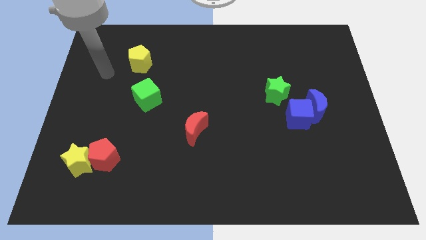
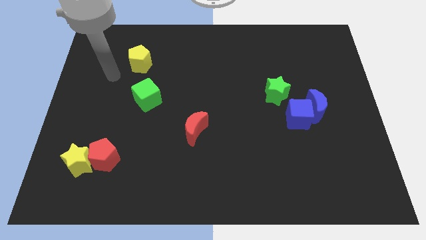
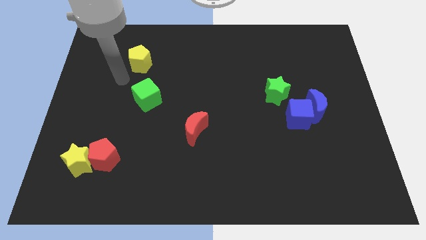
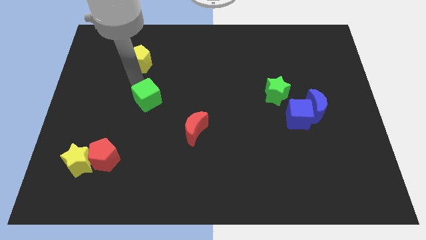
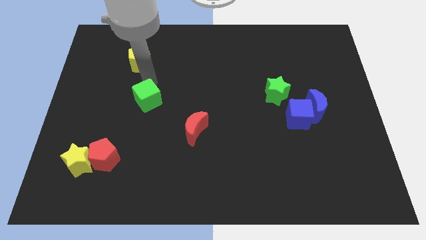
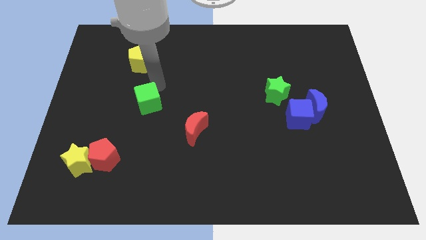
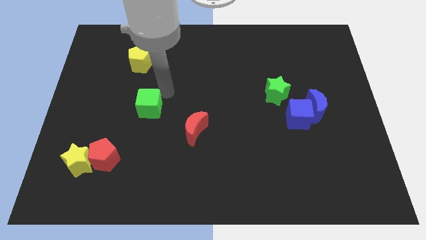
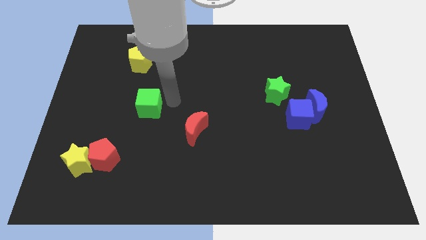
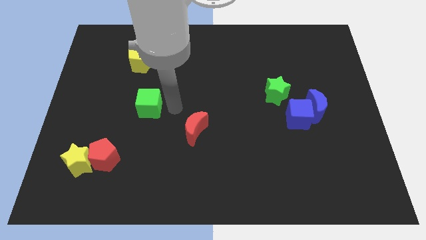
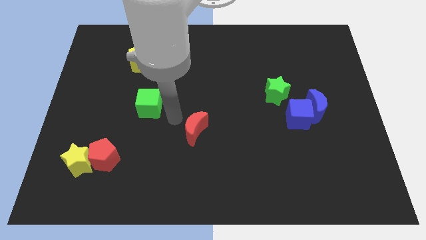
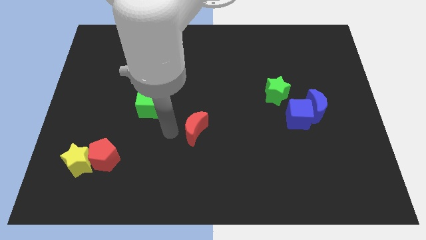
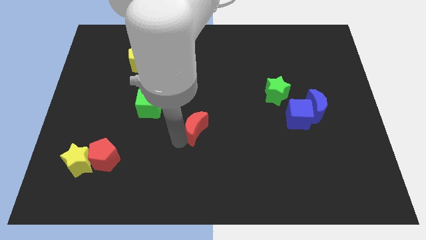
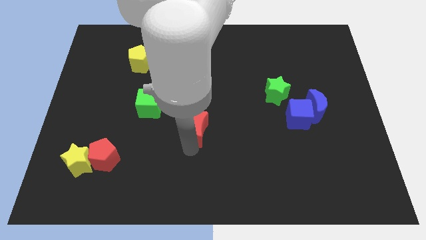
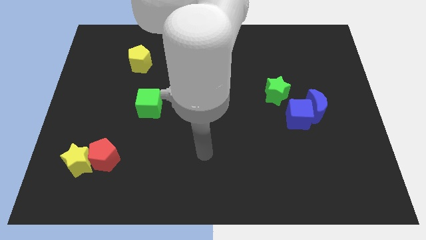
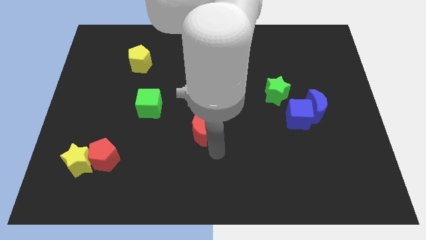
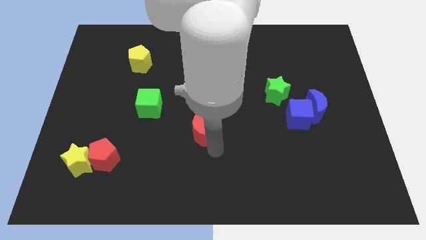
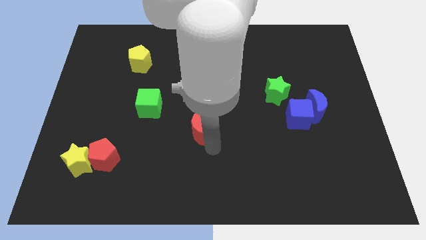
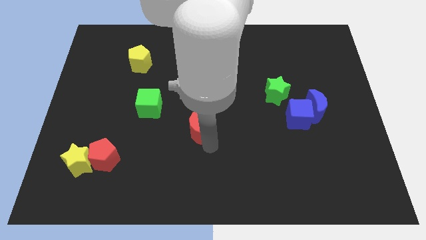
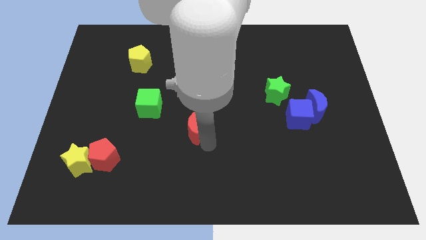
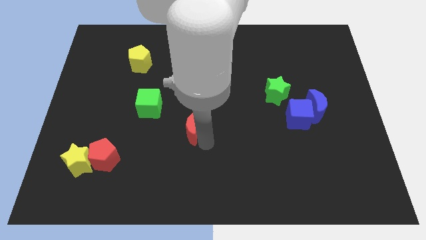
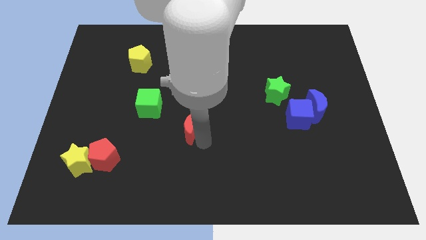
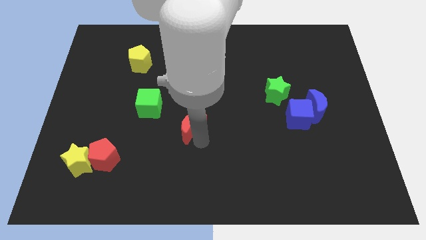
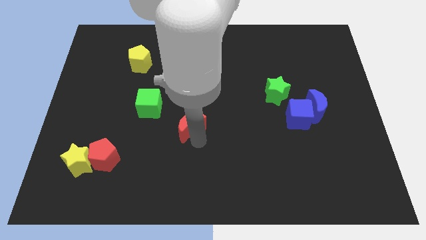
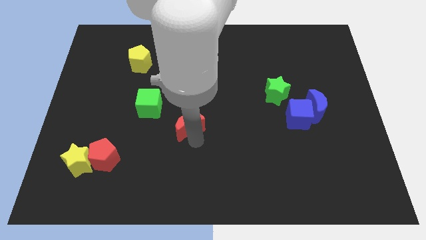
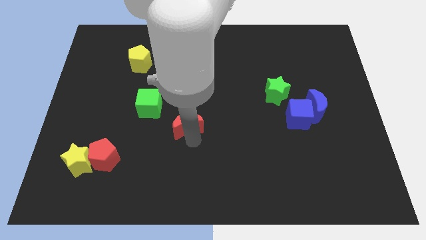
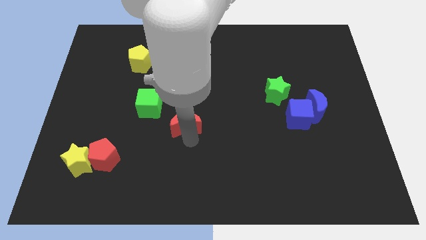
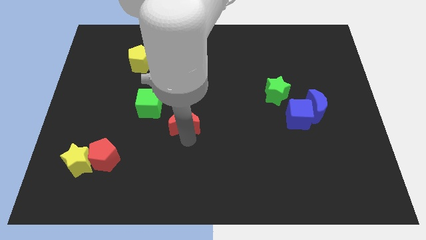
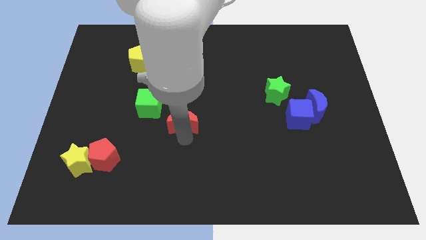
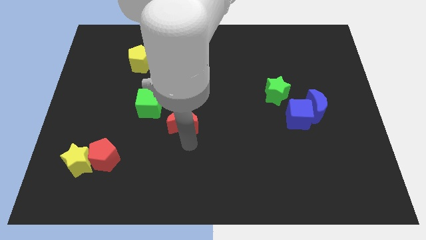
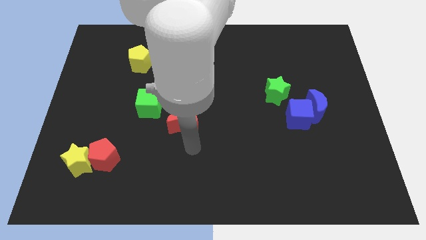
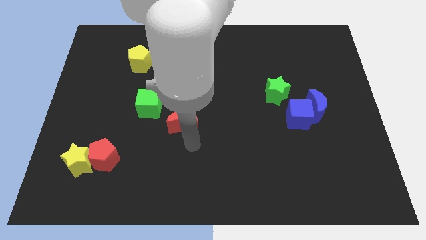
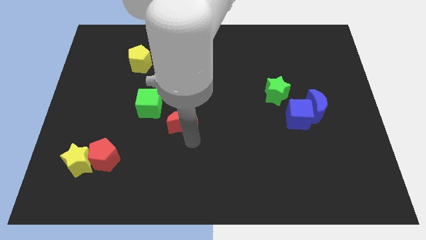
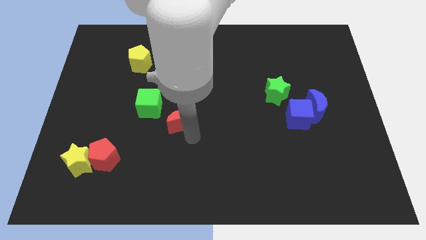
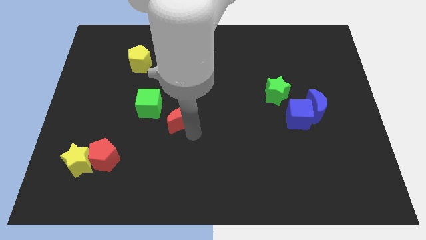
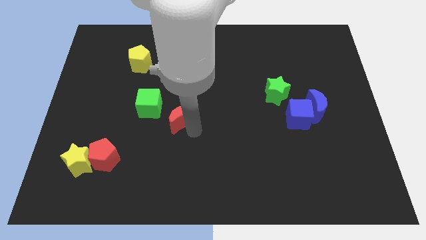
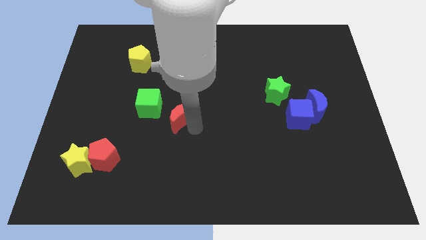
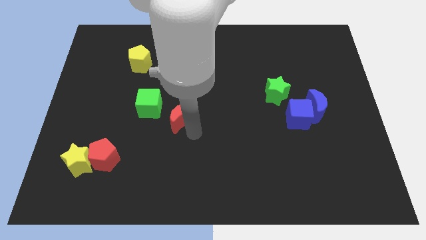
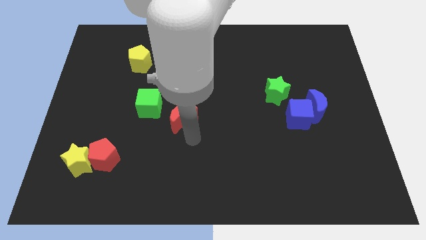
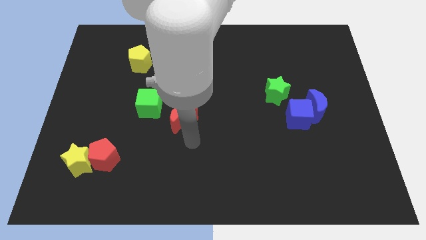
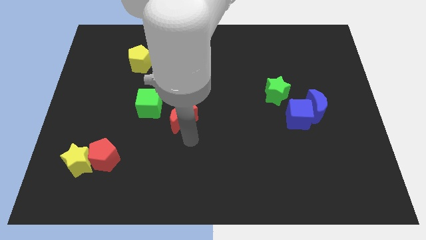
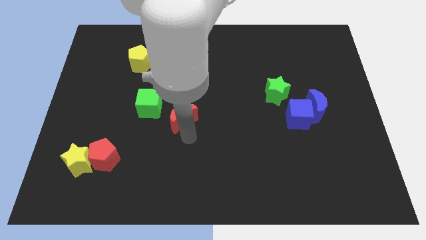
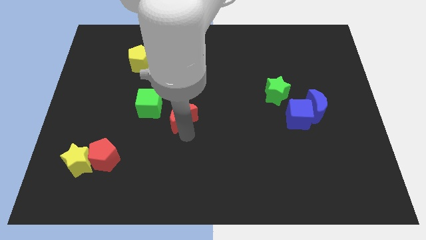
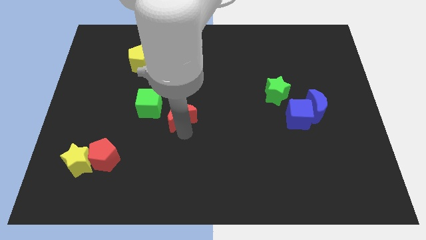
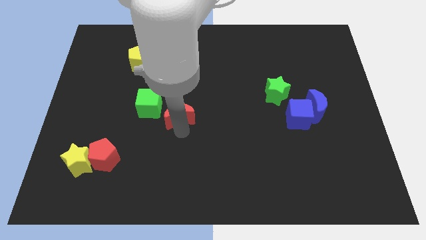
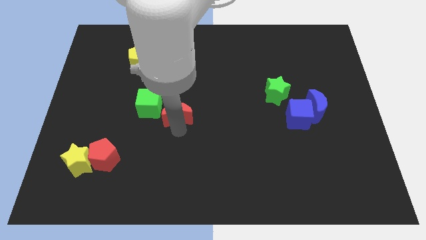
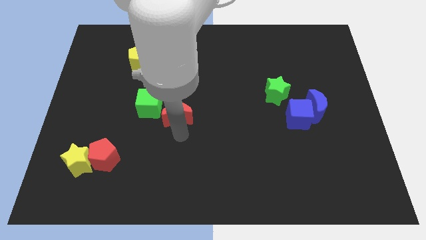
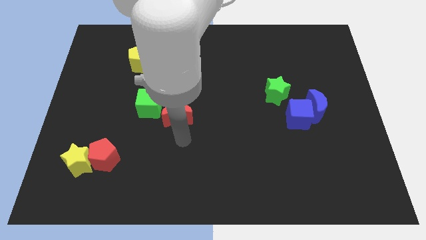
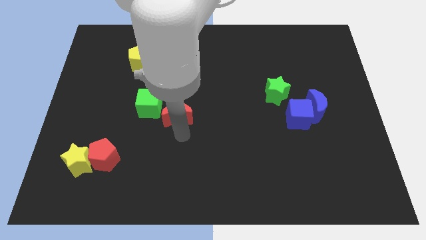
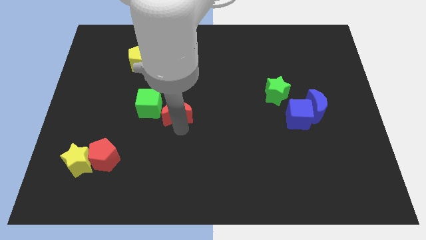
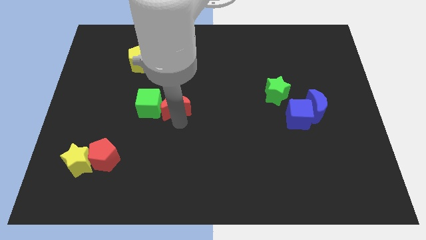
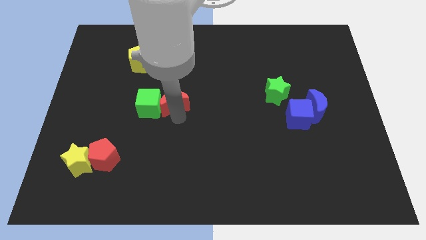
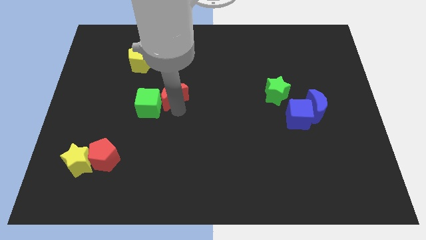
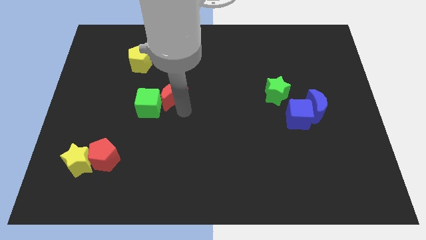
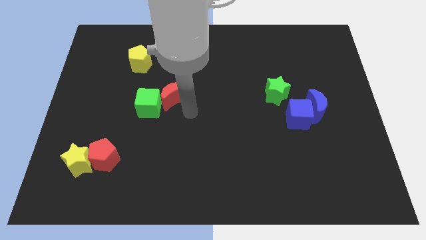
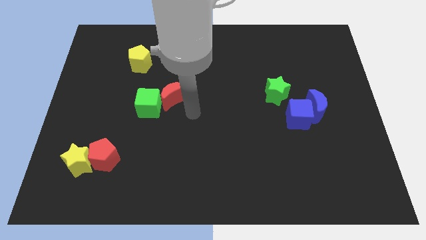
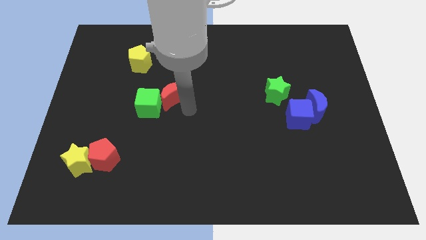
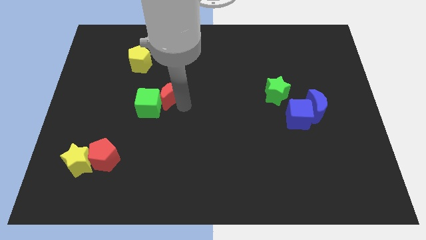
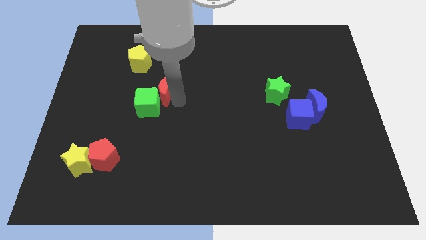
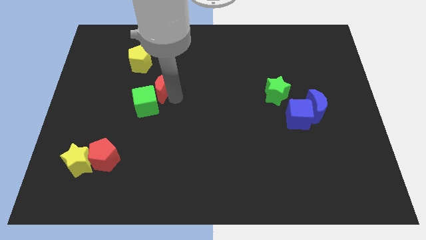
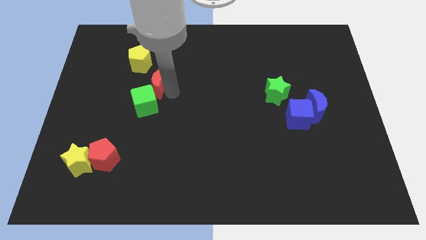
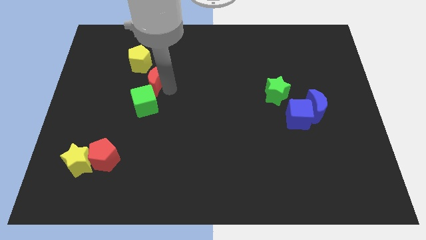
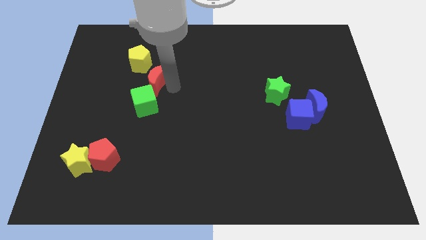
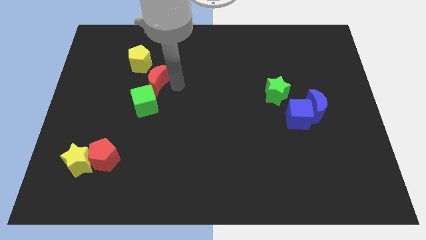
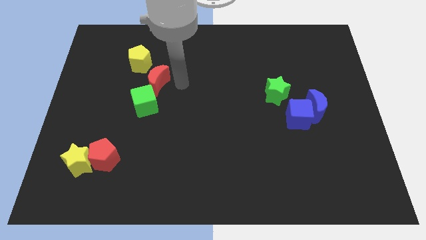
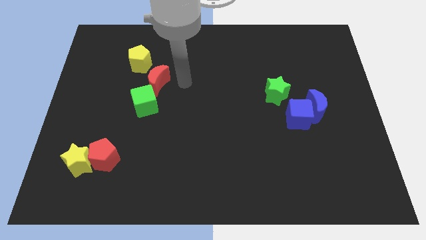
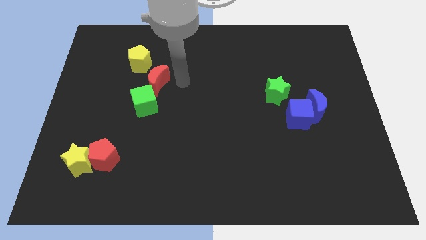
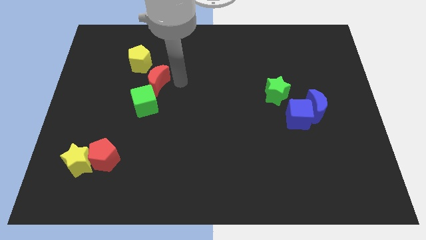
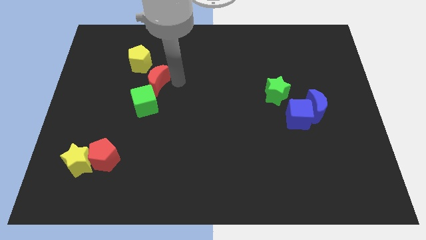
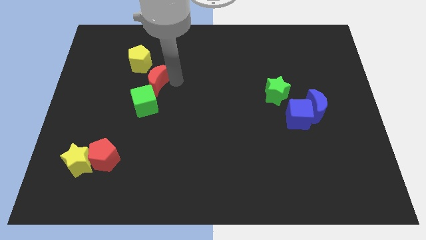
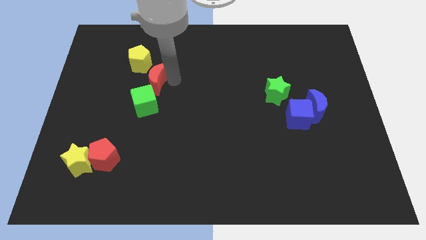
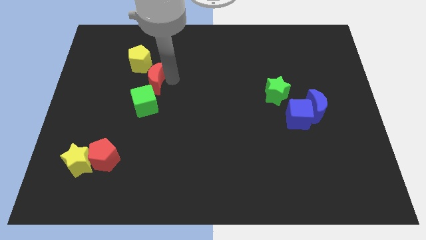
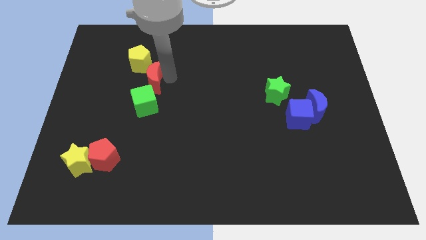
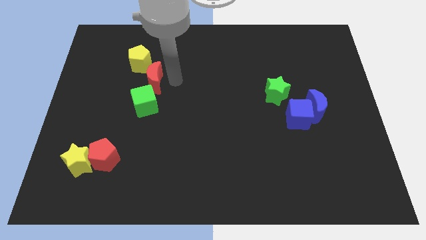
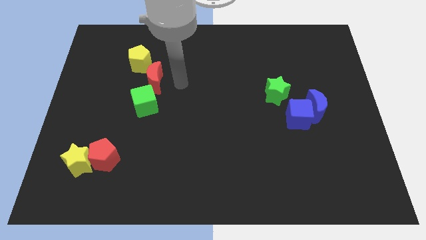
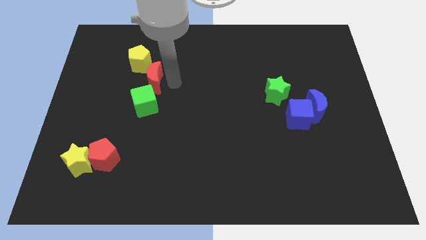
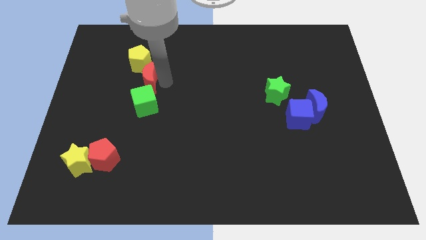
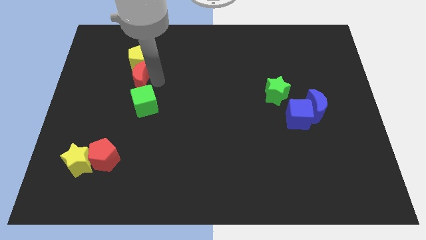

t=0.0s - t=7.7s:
push the red moon up and left

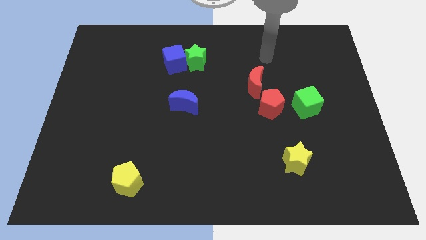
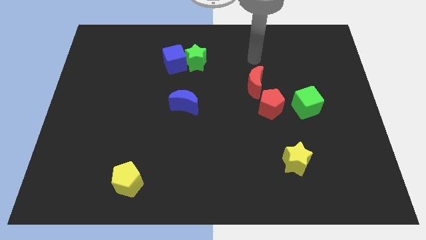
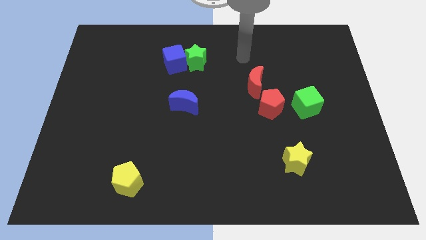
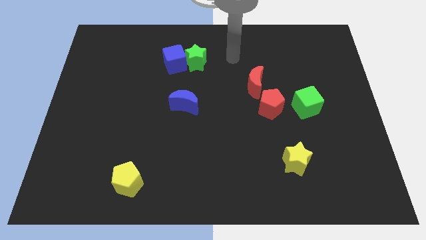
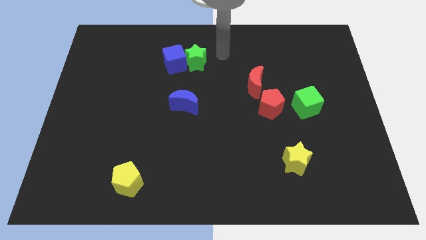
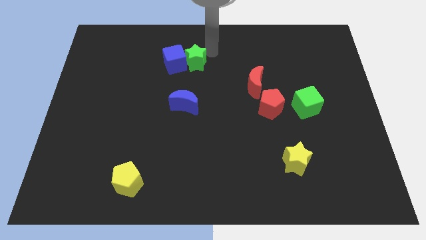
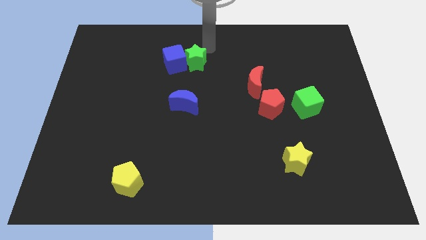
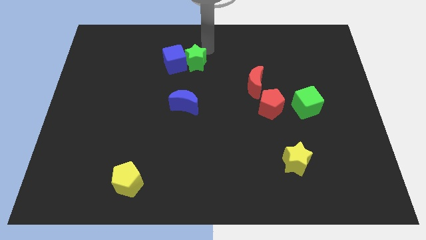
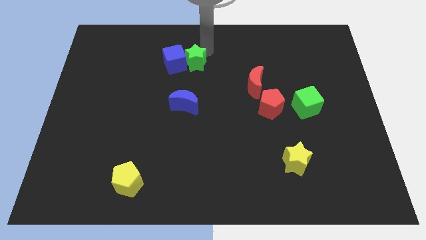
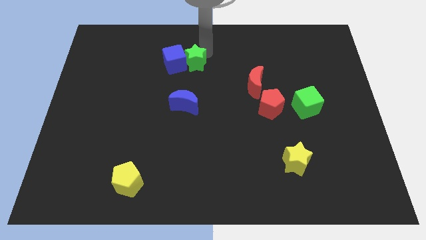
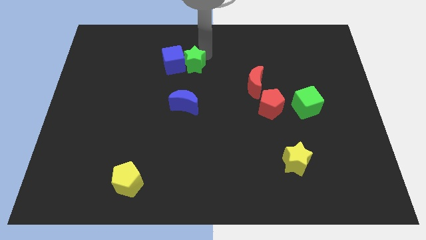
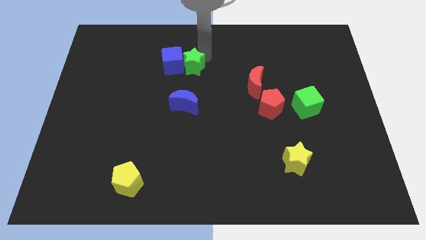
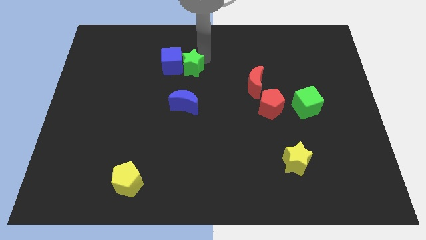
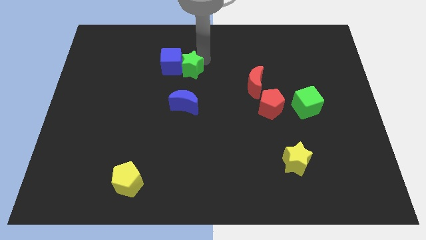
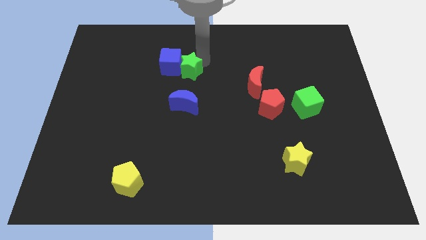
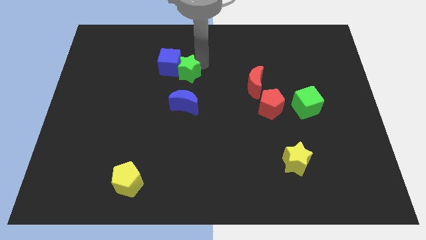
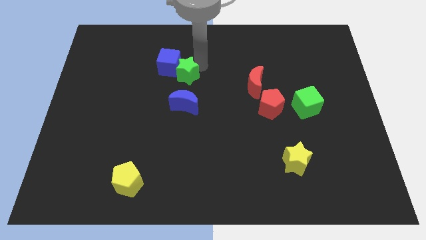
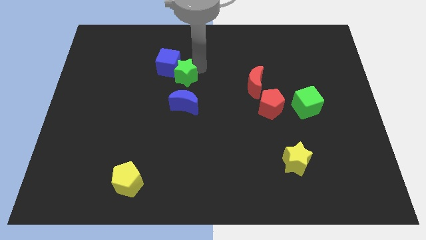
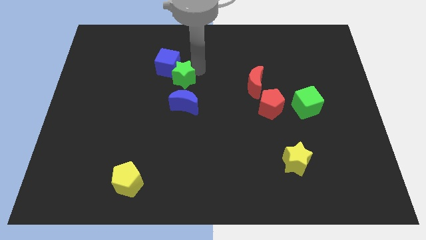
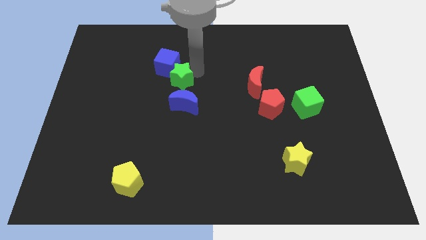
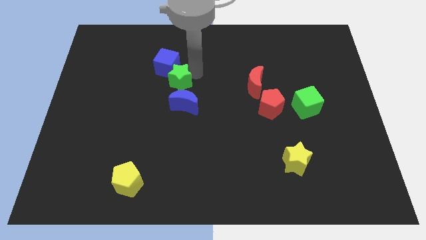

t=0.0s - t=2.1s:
push the green star down and then to the left a bit
